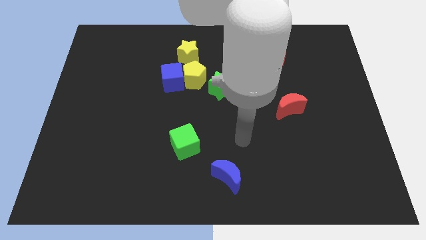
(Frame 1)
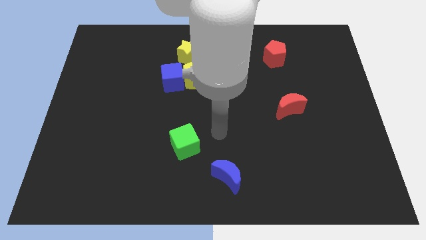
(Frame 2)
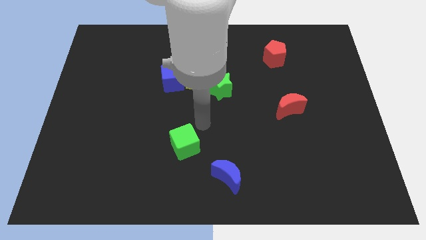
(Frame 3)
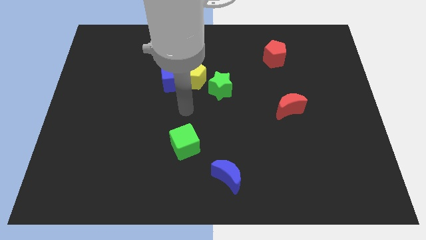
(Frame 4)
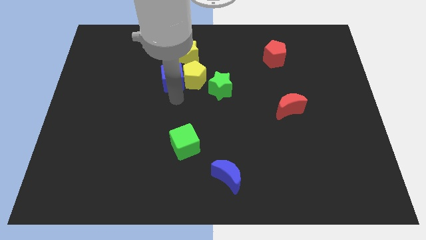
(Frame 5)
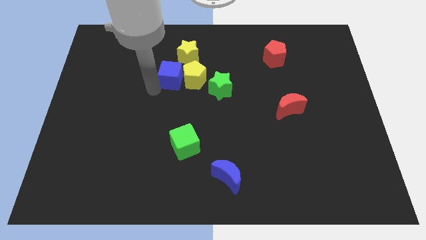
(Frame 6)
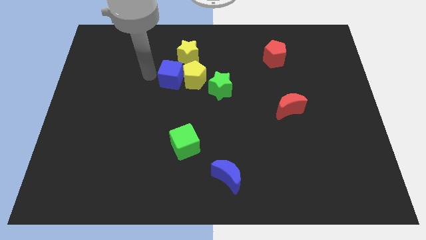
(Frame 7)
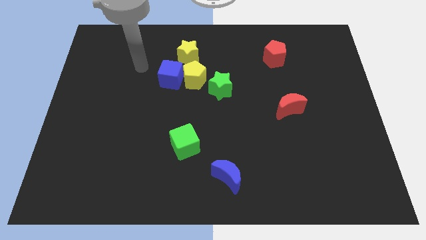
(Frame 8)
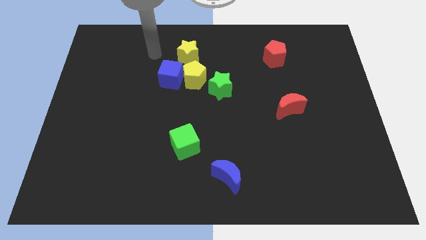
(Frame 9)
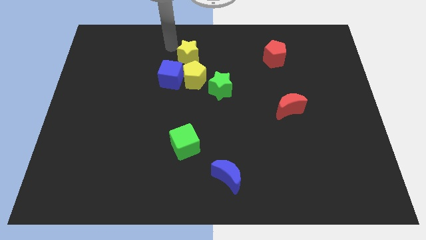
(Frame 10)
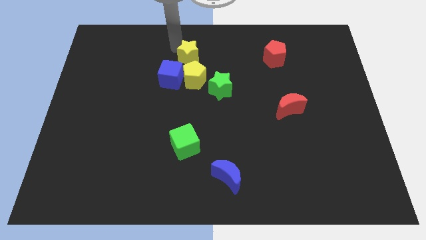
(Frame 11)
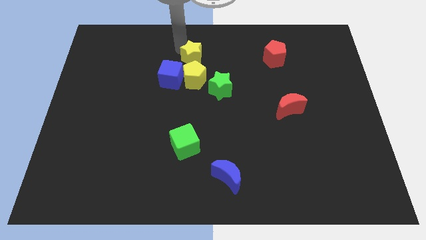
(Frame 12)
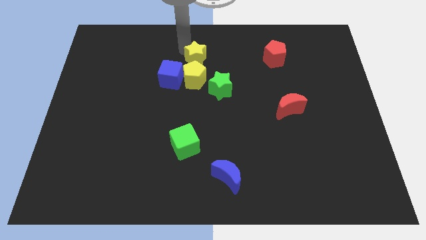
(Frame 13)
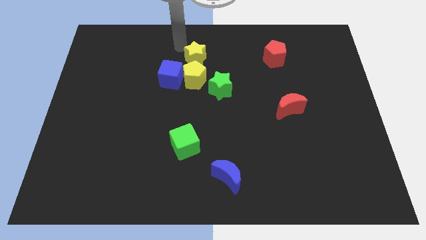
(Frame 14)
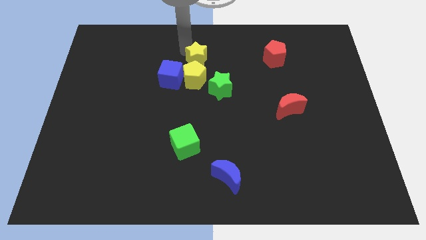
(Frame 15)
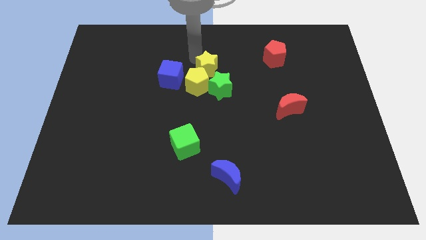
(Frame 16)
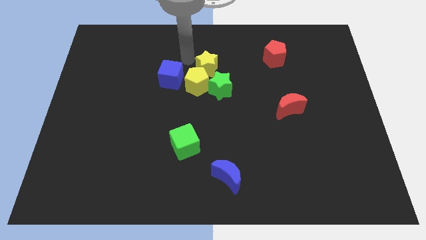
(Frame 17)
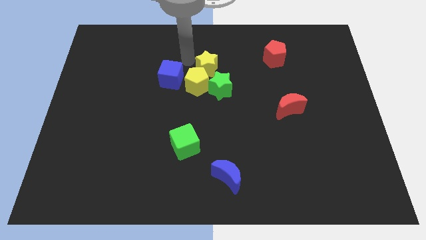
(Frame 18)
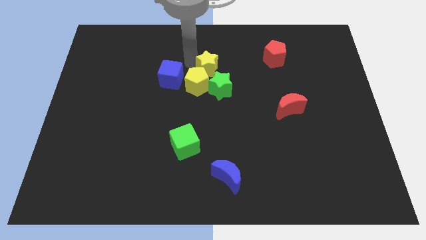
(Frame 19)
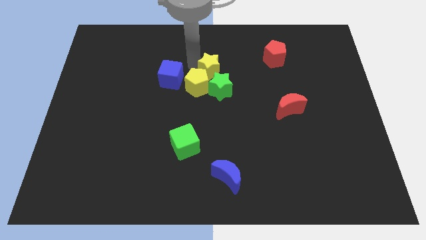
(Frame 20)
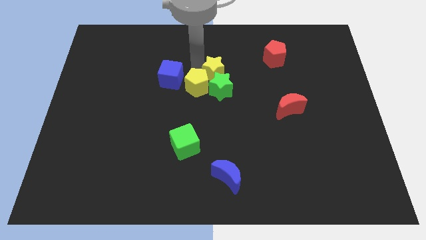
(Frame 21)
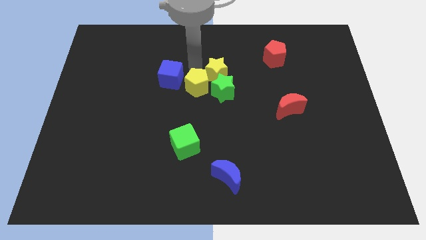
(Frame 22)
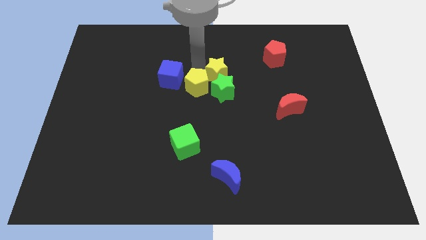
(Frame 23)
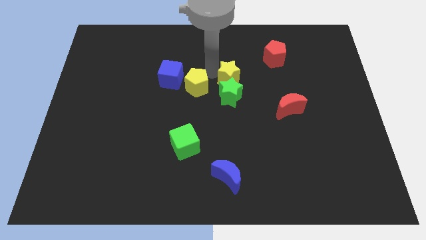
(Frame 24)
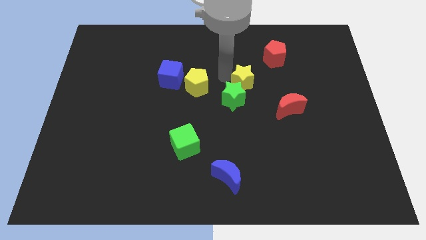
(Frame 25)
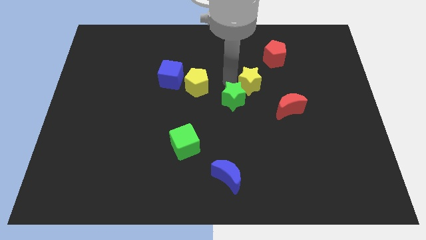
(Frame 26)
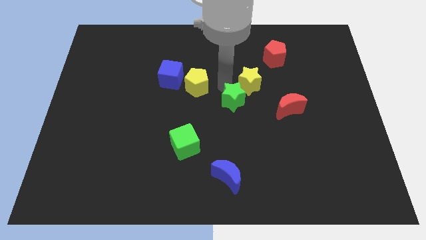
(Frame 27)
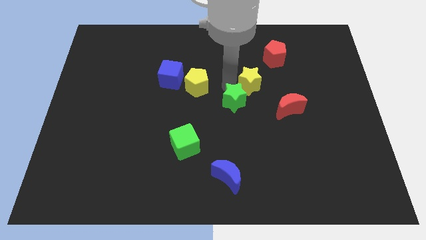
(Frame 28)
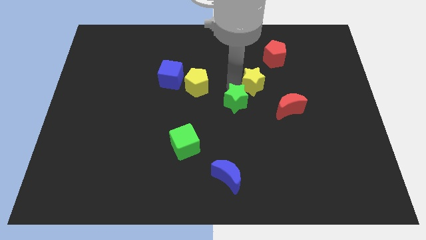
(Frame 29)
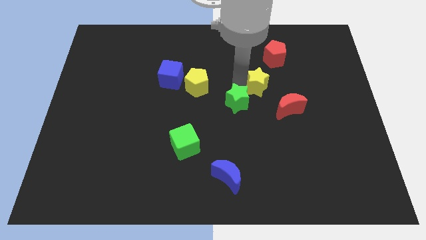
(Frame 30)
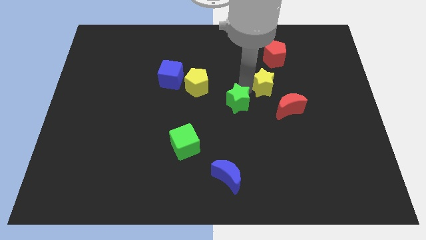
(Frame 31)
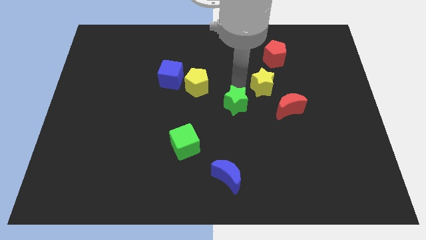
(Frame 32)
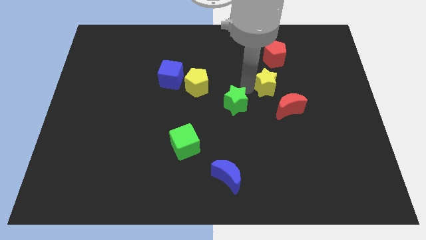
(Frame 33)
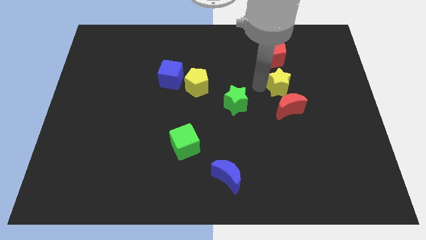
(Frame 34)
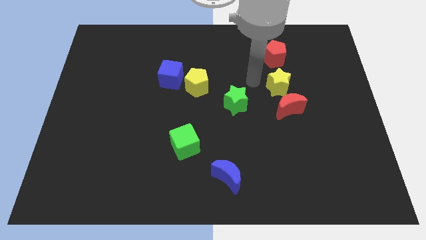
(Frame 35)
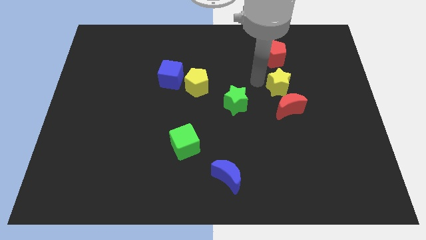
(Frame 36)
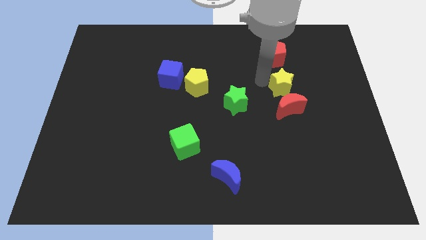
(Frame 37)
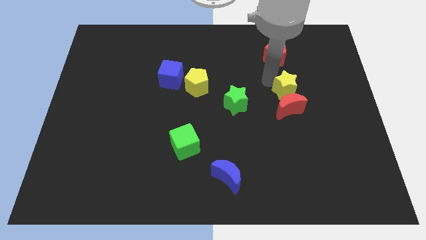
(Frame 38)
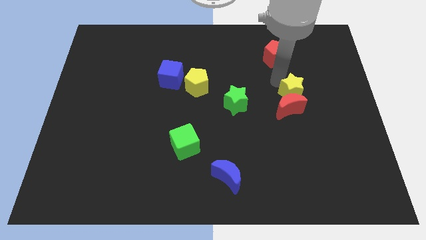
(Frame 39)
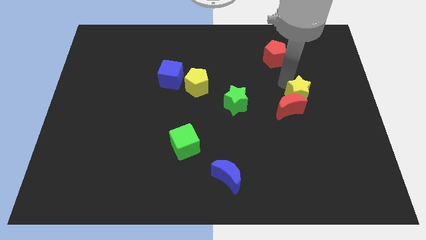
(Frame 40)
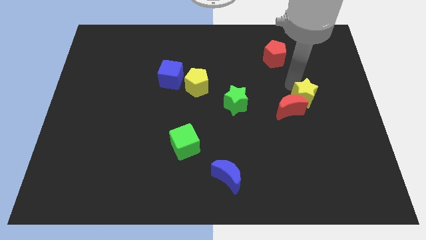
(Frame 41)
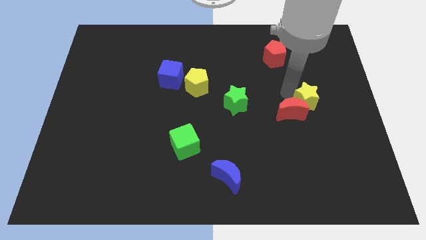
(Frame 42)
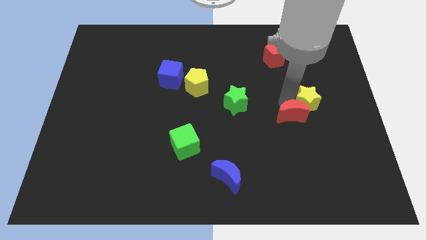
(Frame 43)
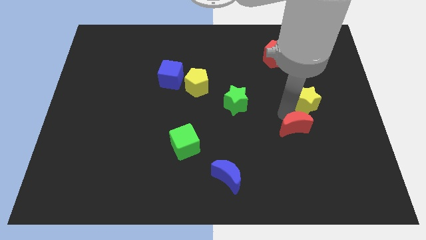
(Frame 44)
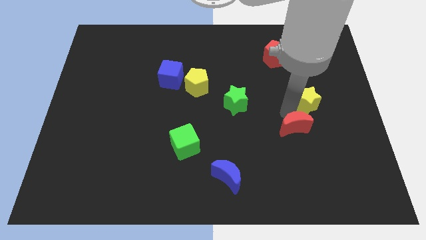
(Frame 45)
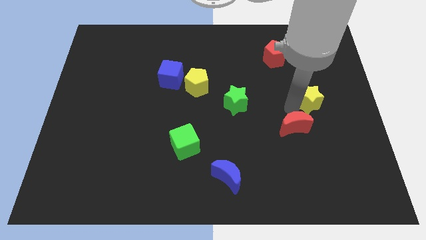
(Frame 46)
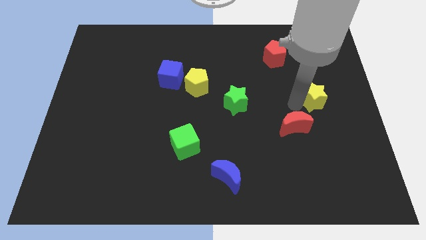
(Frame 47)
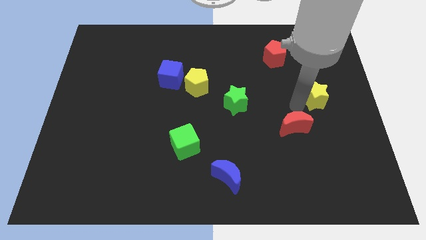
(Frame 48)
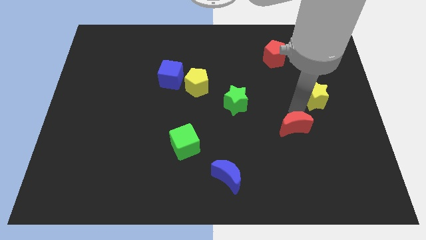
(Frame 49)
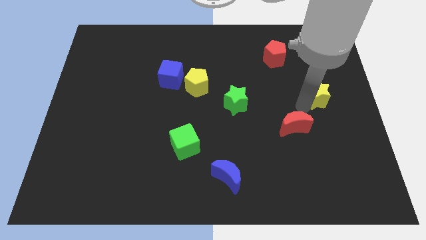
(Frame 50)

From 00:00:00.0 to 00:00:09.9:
push the yellow star to the right side
